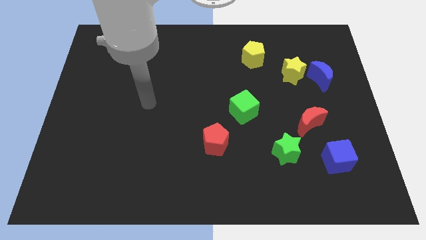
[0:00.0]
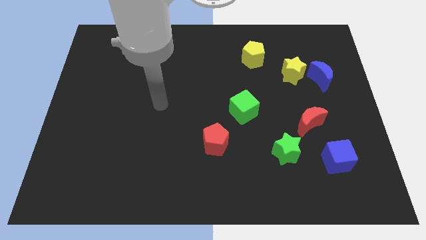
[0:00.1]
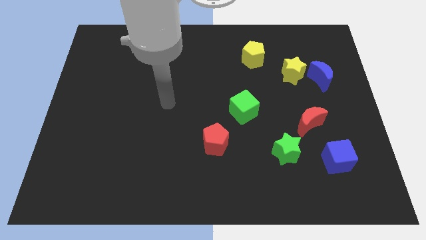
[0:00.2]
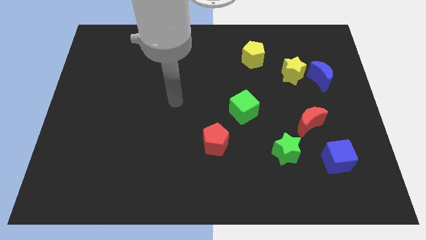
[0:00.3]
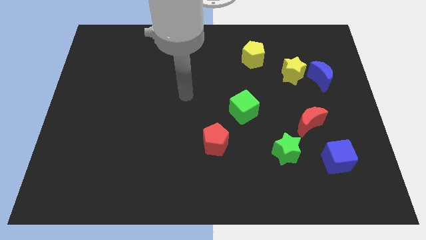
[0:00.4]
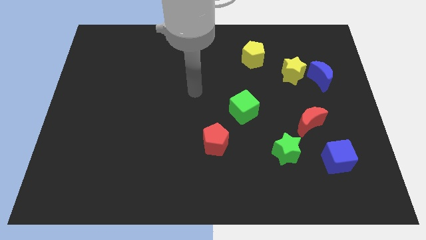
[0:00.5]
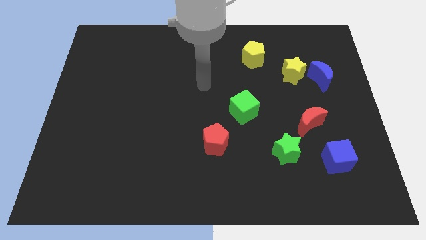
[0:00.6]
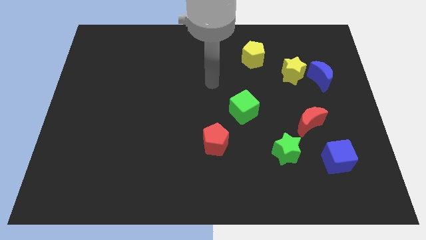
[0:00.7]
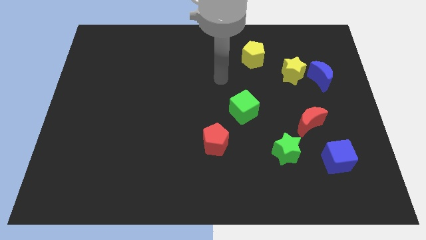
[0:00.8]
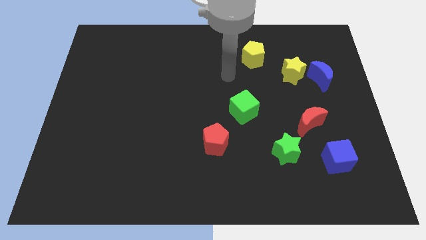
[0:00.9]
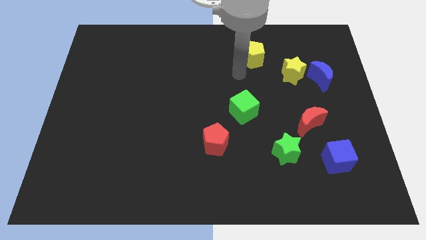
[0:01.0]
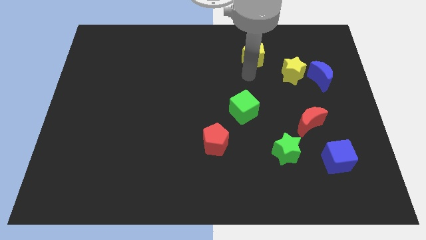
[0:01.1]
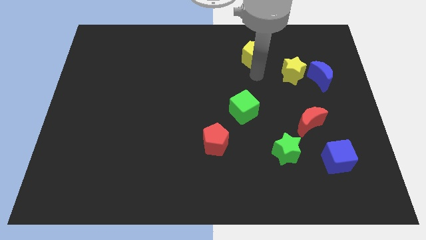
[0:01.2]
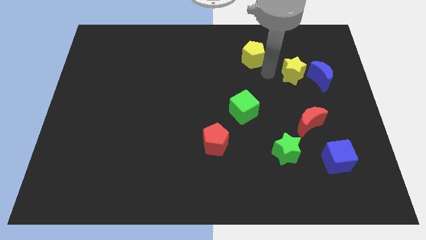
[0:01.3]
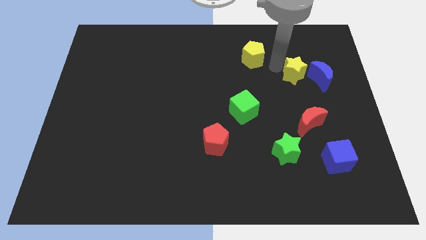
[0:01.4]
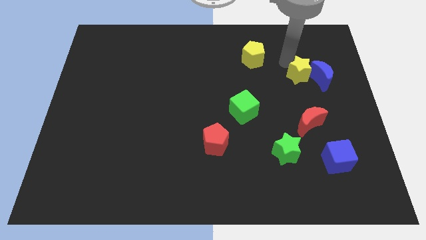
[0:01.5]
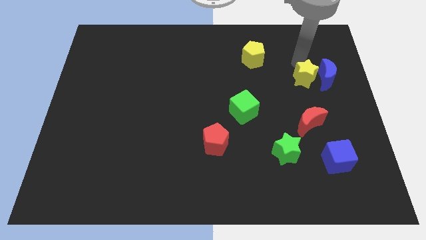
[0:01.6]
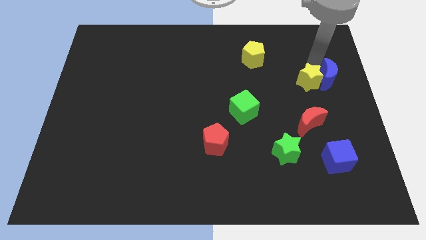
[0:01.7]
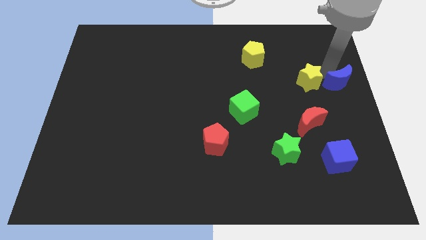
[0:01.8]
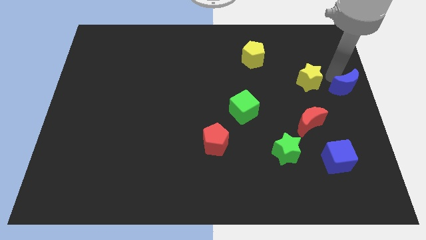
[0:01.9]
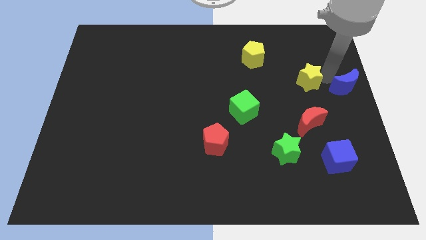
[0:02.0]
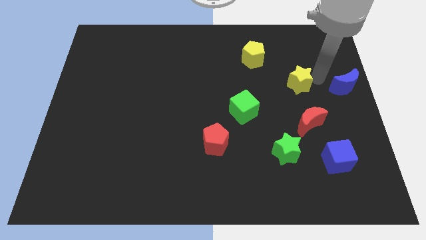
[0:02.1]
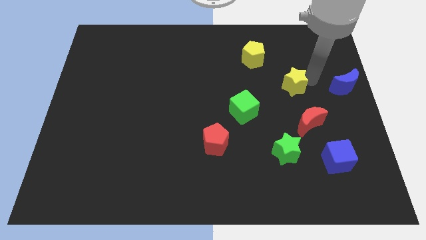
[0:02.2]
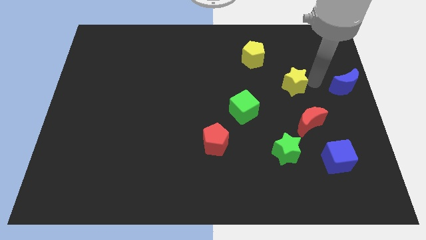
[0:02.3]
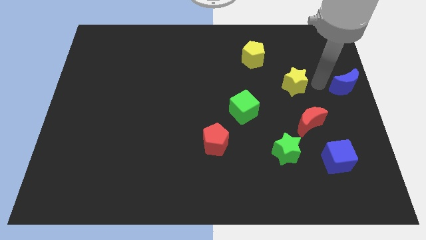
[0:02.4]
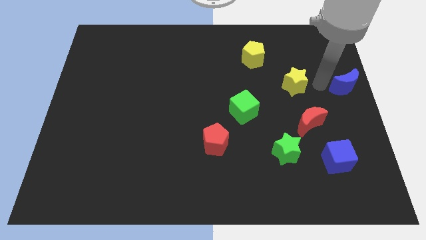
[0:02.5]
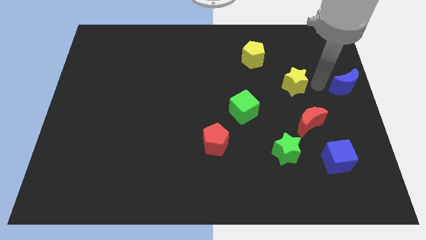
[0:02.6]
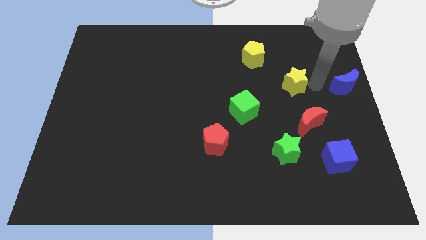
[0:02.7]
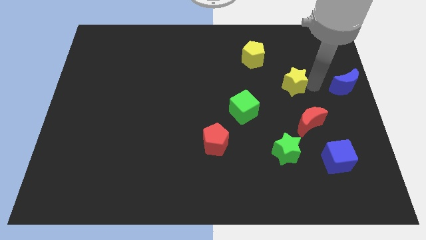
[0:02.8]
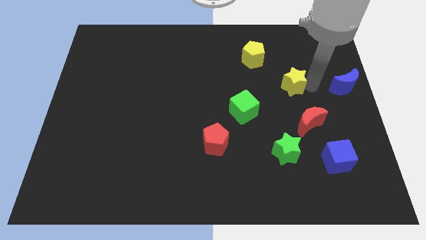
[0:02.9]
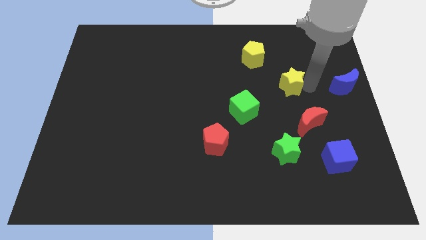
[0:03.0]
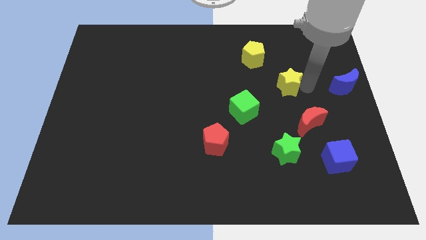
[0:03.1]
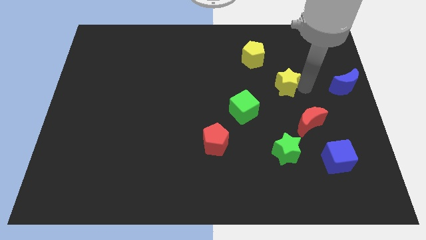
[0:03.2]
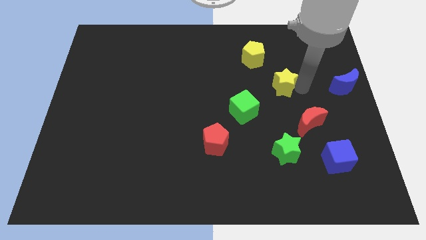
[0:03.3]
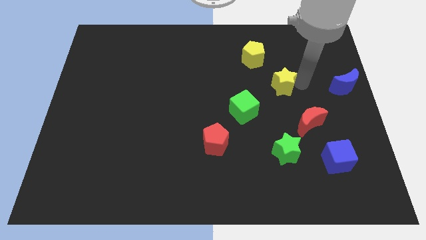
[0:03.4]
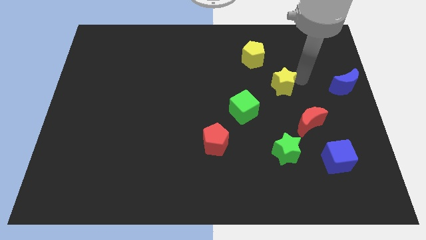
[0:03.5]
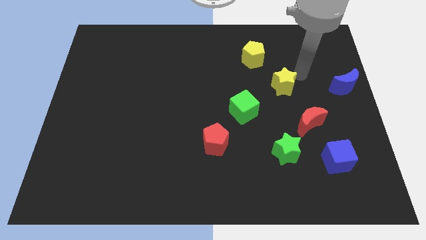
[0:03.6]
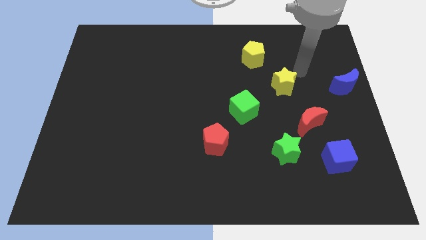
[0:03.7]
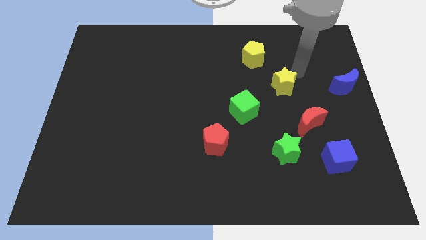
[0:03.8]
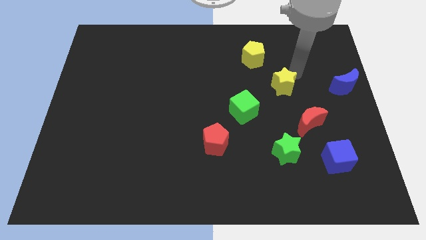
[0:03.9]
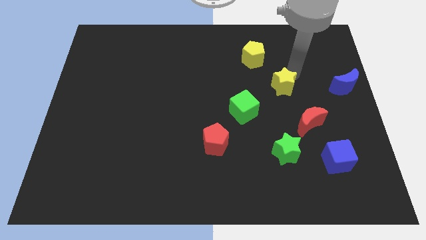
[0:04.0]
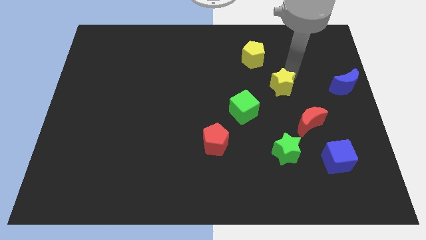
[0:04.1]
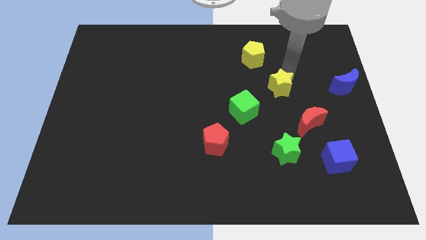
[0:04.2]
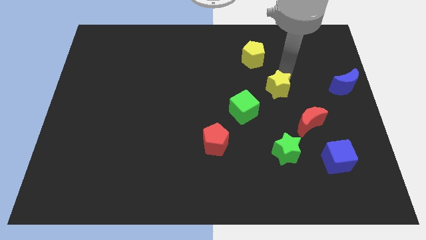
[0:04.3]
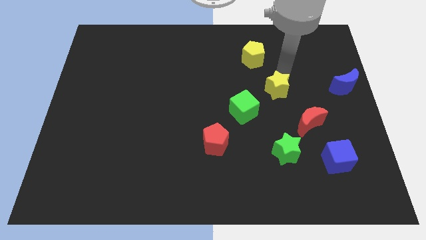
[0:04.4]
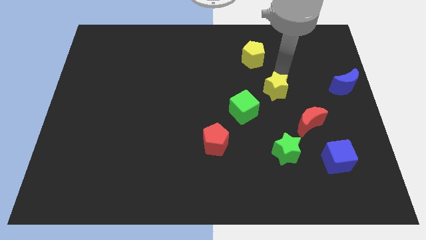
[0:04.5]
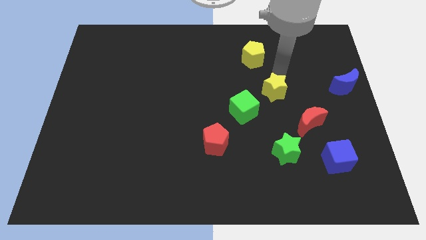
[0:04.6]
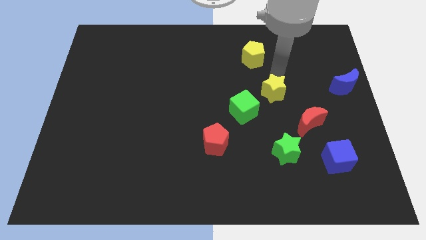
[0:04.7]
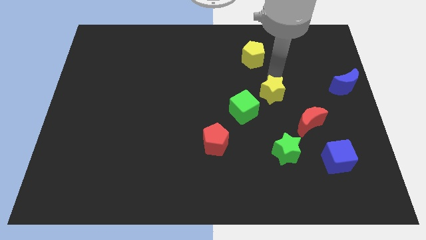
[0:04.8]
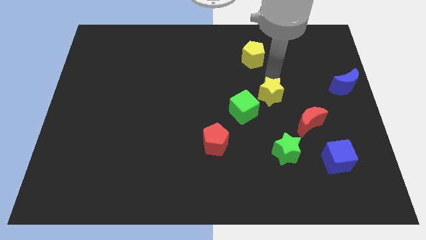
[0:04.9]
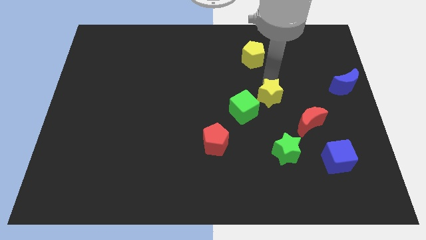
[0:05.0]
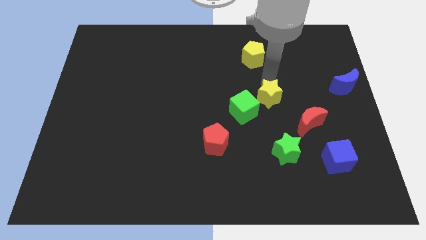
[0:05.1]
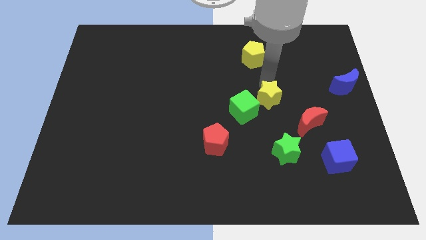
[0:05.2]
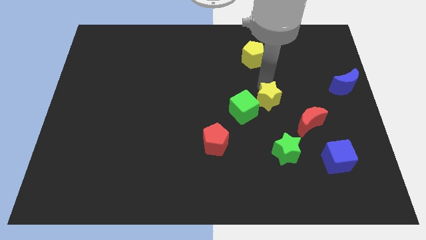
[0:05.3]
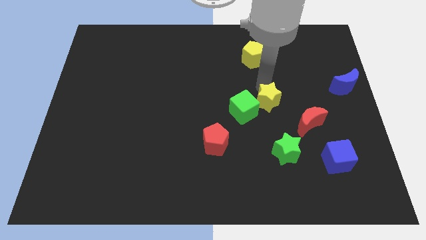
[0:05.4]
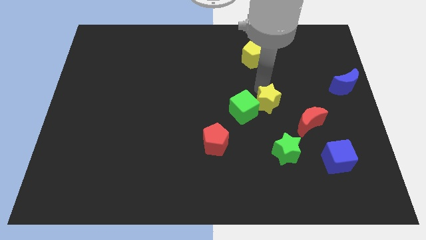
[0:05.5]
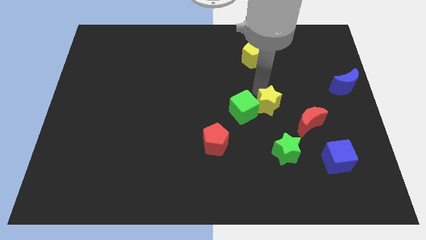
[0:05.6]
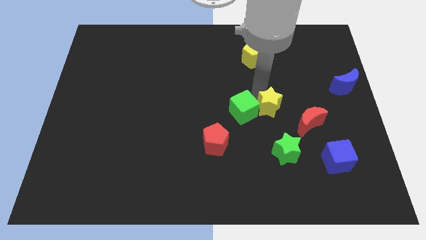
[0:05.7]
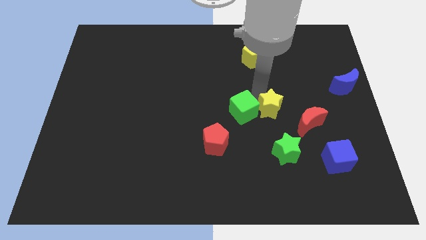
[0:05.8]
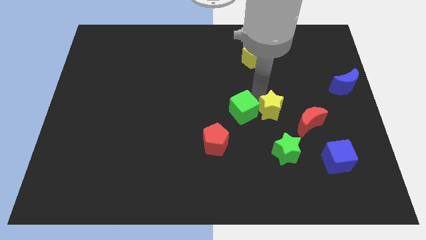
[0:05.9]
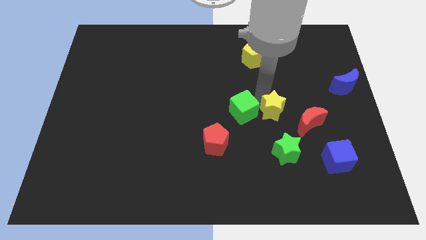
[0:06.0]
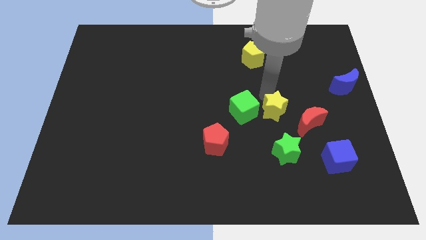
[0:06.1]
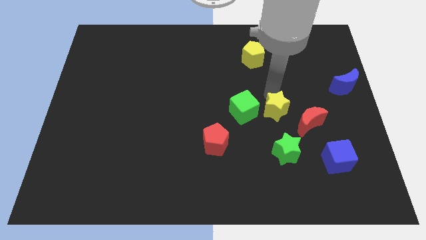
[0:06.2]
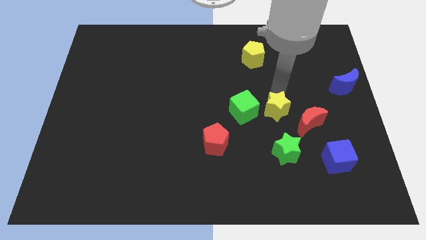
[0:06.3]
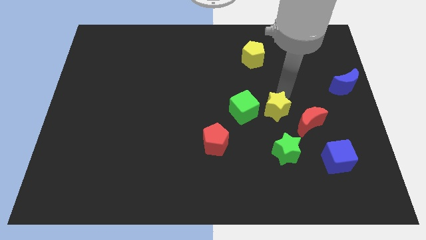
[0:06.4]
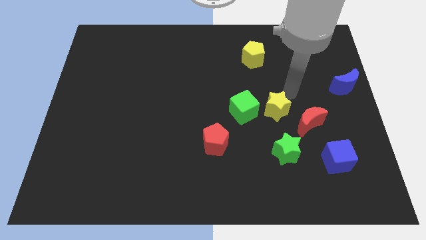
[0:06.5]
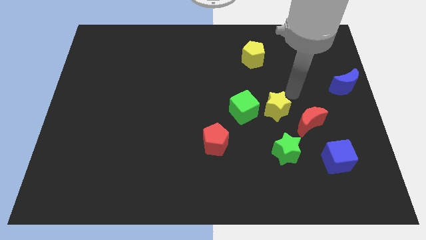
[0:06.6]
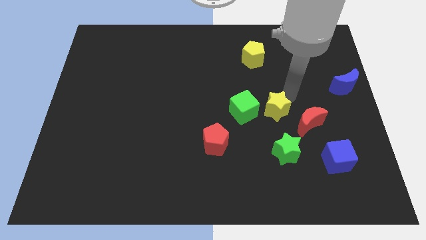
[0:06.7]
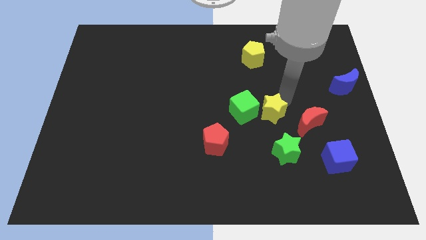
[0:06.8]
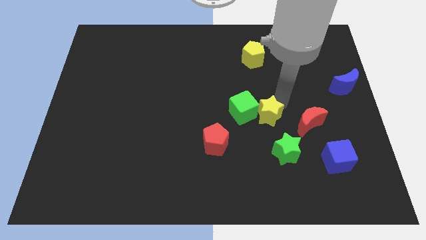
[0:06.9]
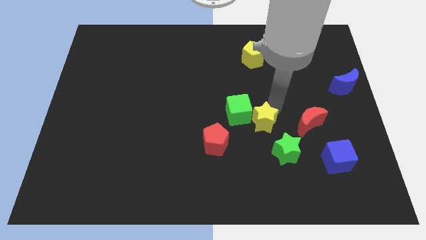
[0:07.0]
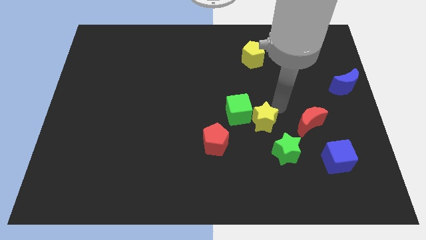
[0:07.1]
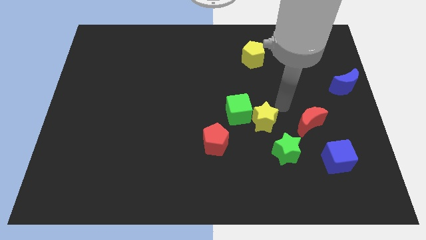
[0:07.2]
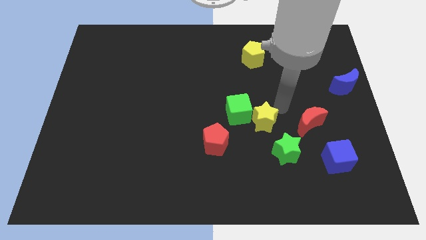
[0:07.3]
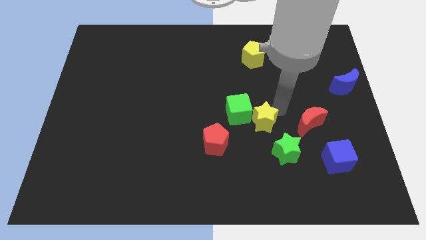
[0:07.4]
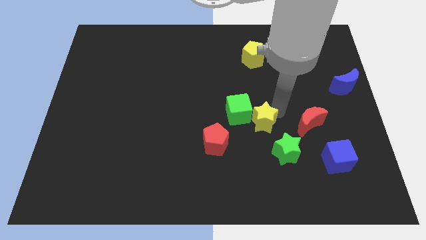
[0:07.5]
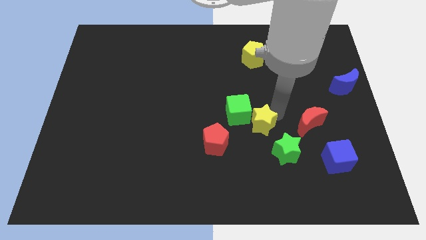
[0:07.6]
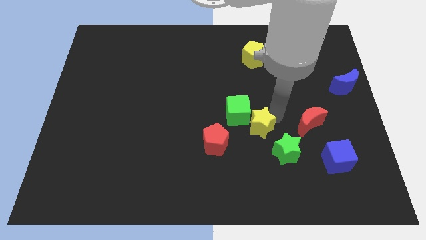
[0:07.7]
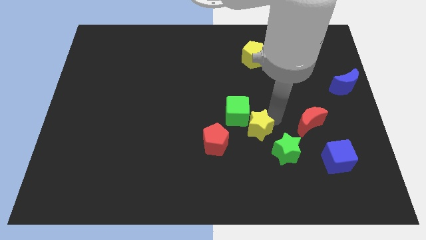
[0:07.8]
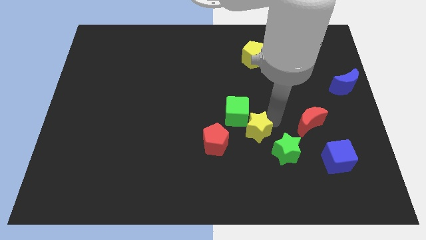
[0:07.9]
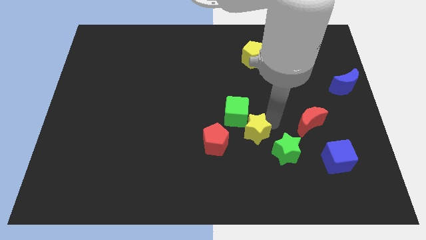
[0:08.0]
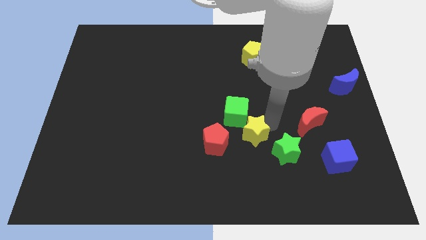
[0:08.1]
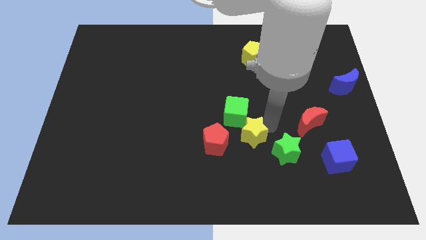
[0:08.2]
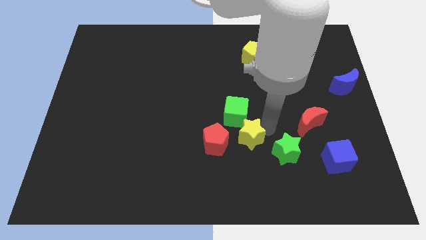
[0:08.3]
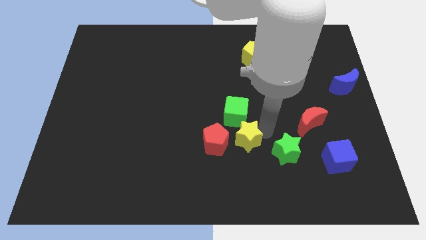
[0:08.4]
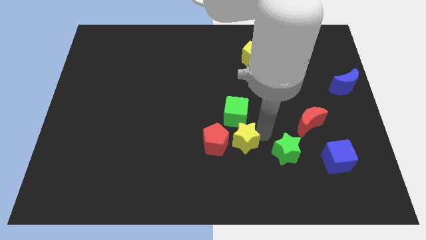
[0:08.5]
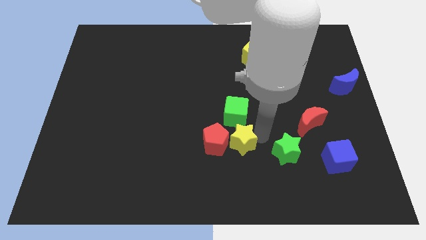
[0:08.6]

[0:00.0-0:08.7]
slide the yellow star to the red pentagon
